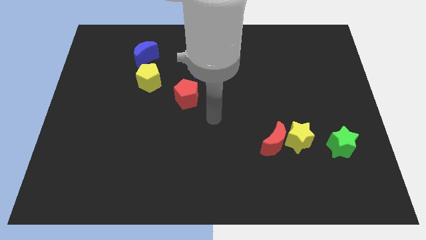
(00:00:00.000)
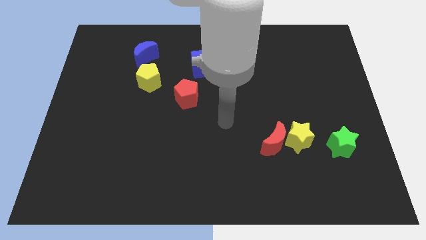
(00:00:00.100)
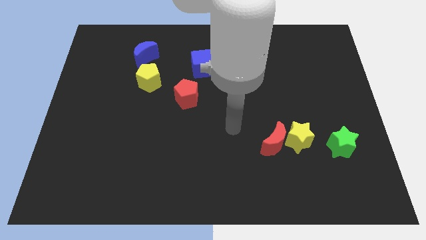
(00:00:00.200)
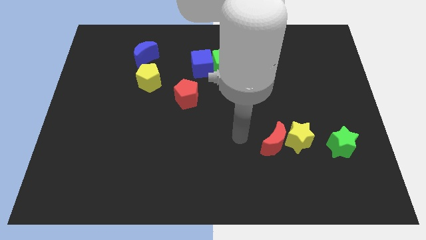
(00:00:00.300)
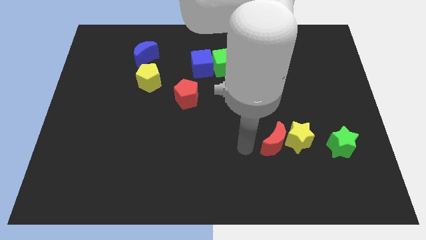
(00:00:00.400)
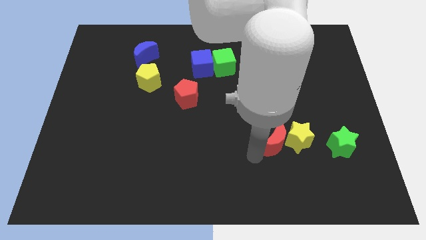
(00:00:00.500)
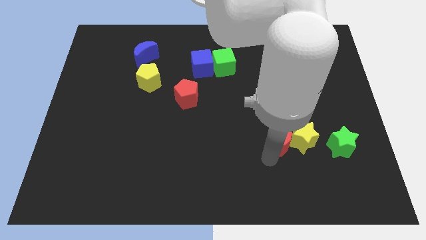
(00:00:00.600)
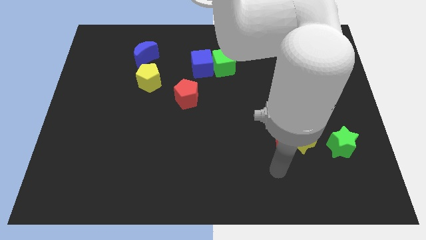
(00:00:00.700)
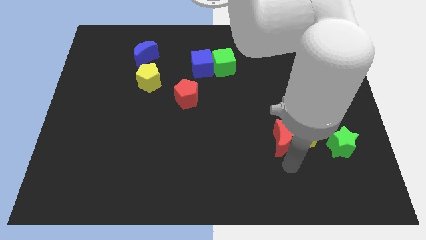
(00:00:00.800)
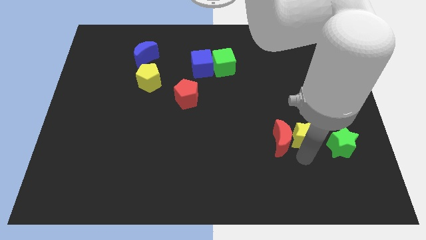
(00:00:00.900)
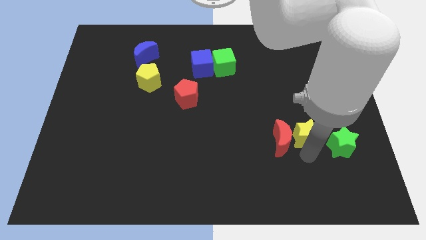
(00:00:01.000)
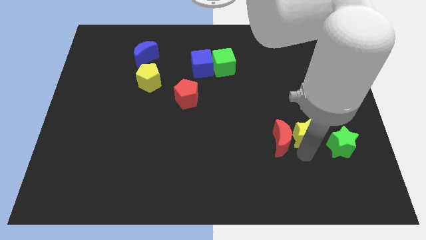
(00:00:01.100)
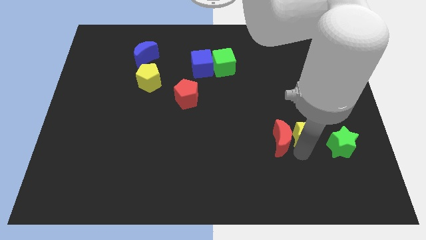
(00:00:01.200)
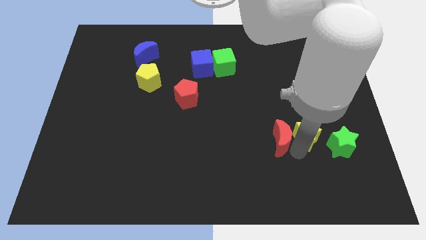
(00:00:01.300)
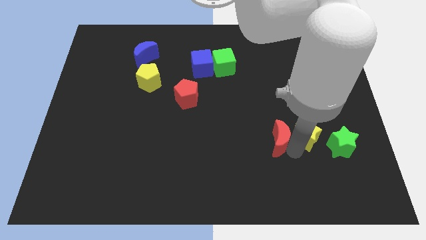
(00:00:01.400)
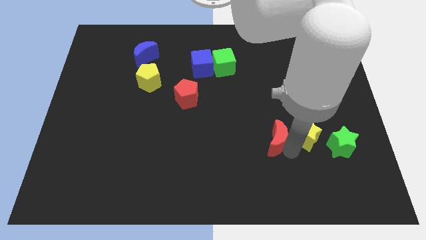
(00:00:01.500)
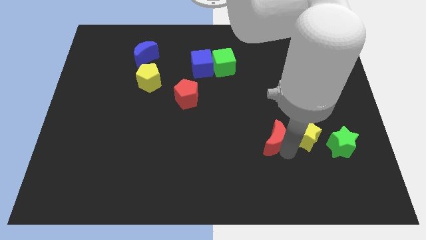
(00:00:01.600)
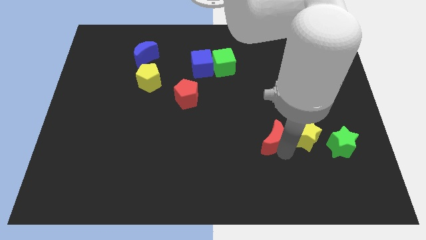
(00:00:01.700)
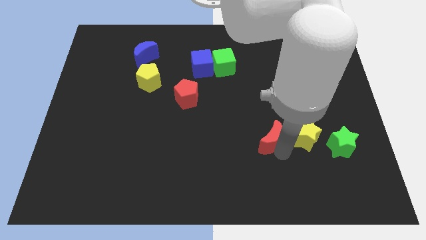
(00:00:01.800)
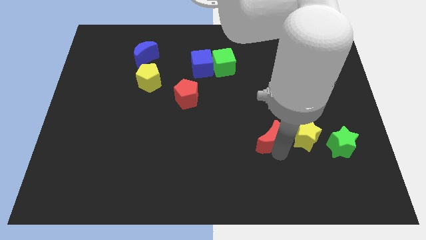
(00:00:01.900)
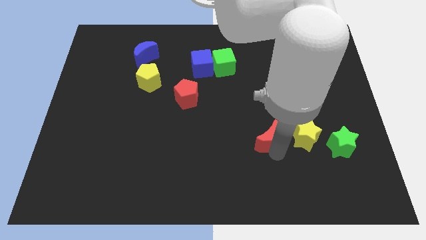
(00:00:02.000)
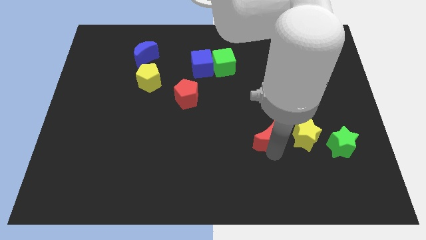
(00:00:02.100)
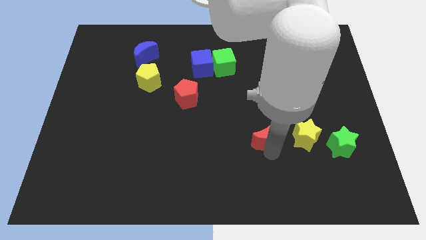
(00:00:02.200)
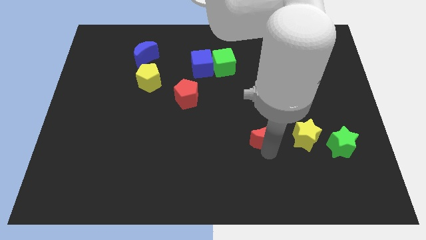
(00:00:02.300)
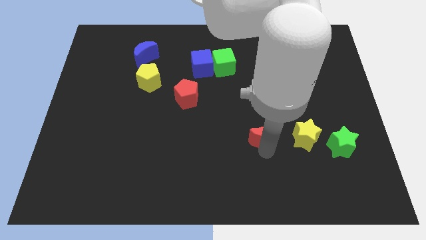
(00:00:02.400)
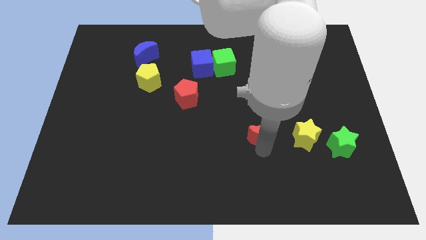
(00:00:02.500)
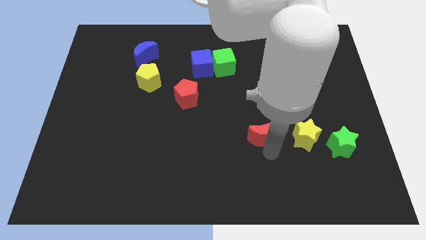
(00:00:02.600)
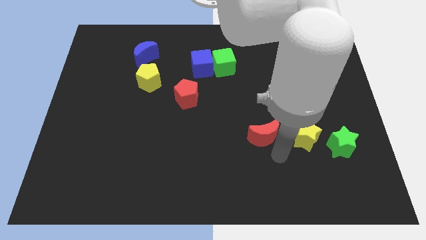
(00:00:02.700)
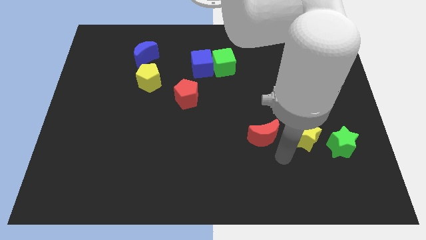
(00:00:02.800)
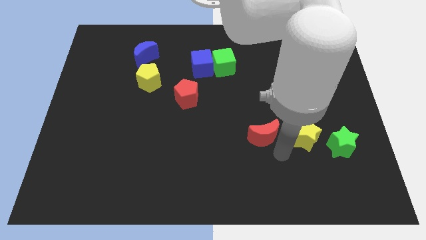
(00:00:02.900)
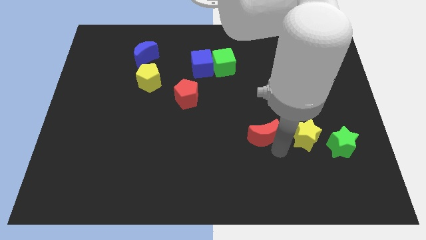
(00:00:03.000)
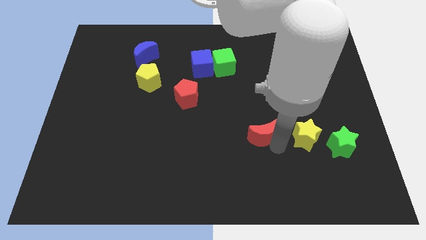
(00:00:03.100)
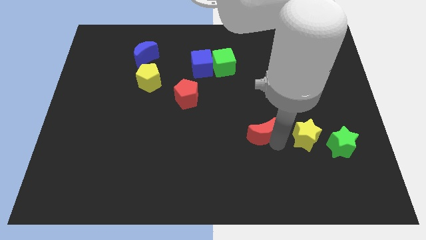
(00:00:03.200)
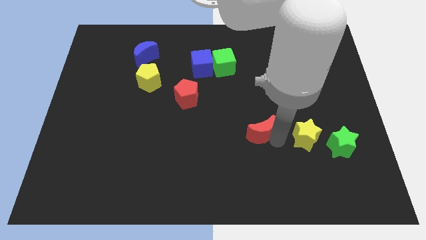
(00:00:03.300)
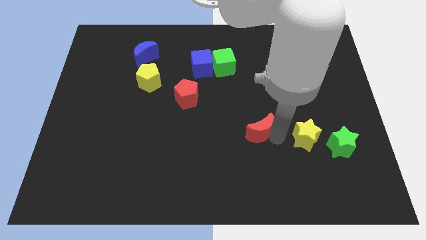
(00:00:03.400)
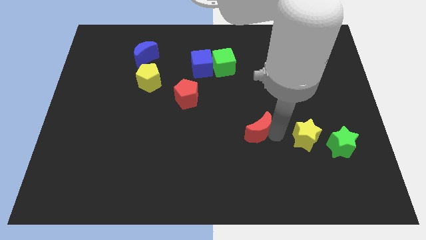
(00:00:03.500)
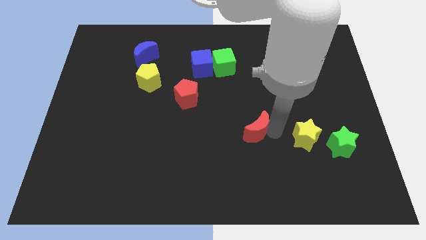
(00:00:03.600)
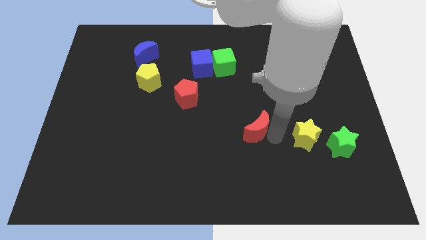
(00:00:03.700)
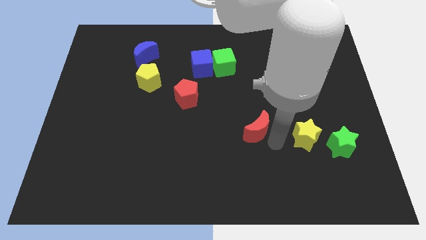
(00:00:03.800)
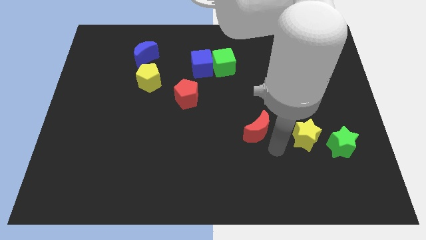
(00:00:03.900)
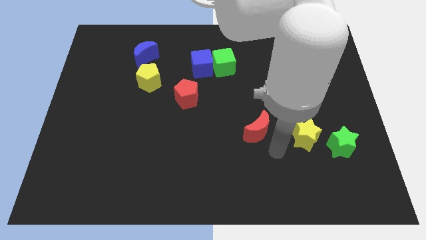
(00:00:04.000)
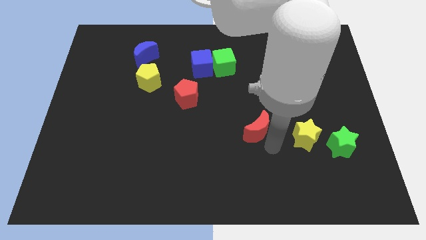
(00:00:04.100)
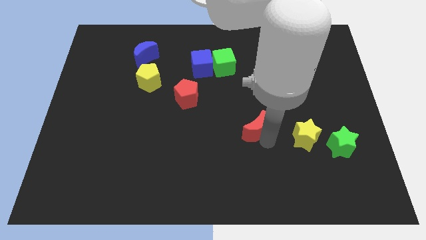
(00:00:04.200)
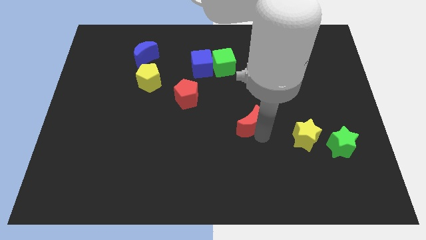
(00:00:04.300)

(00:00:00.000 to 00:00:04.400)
slightly slide the red moon up and then to the left

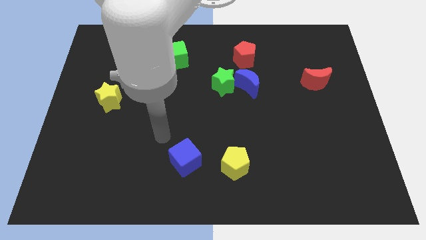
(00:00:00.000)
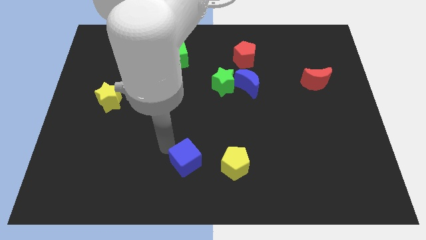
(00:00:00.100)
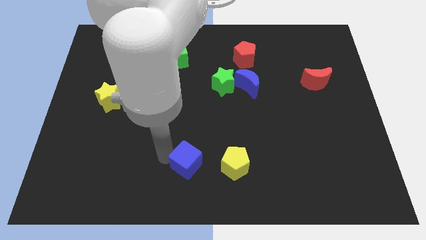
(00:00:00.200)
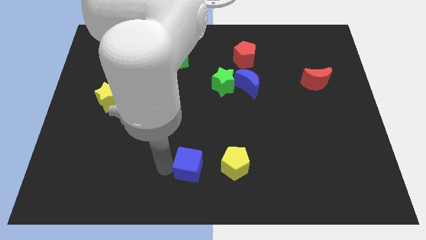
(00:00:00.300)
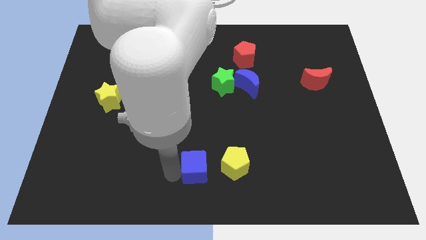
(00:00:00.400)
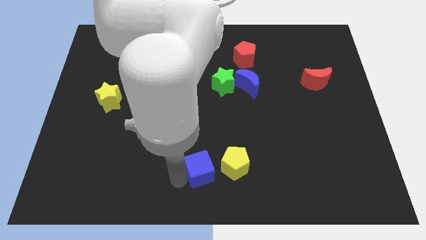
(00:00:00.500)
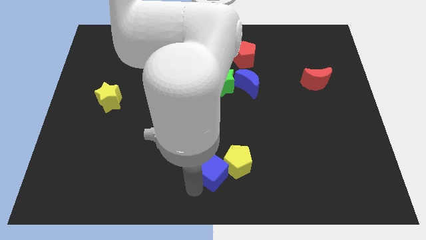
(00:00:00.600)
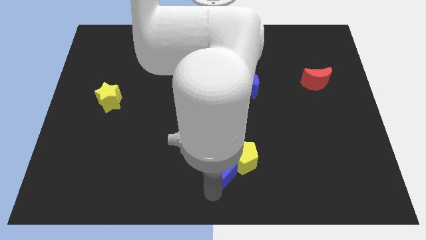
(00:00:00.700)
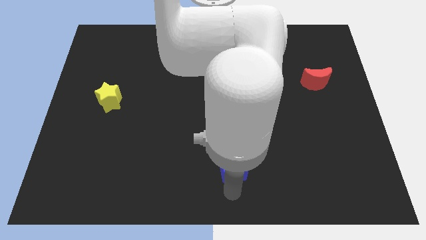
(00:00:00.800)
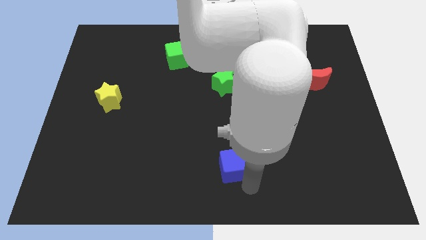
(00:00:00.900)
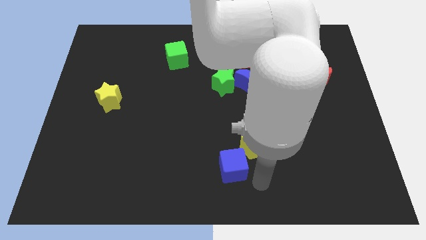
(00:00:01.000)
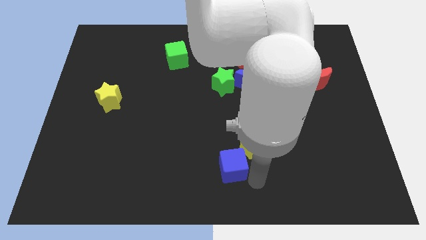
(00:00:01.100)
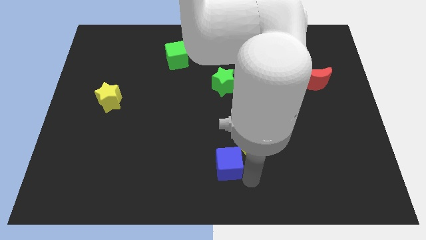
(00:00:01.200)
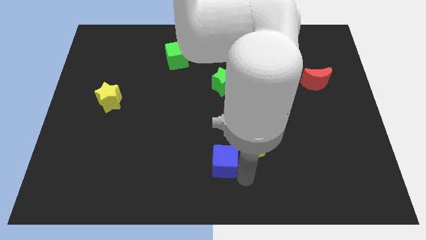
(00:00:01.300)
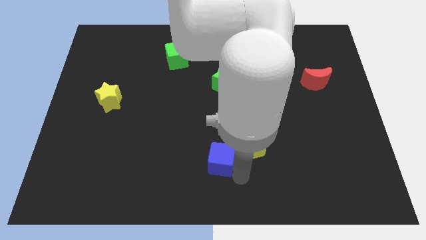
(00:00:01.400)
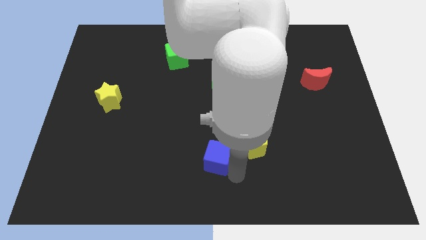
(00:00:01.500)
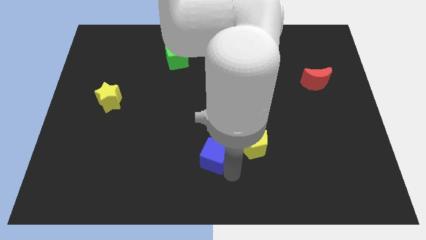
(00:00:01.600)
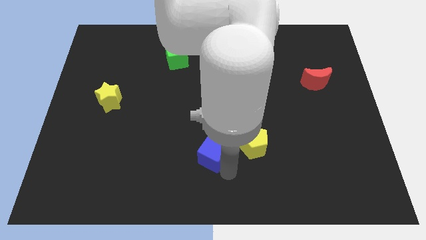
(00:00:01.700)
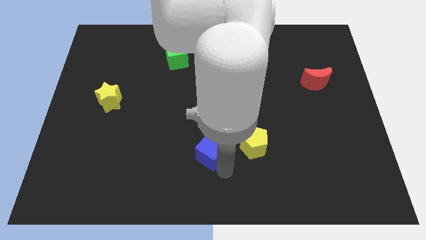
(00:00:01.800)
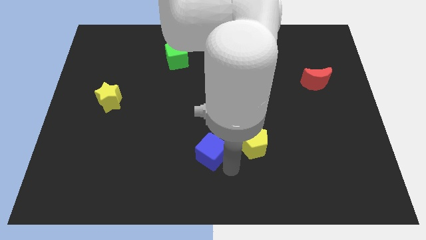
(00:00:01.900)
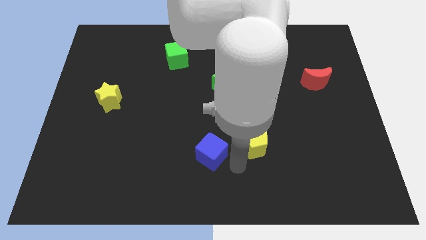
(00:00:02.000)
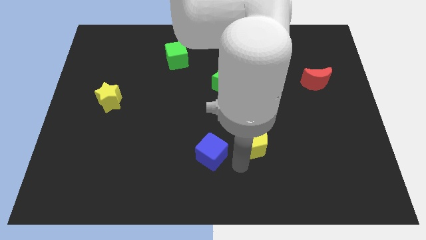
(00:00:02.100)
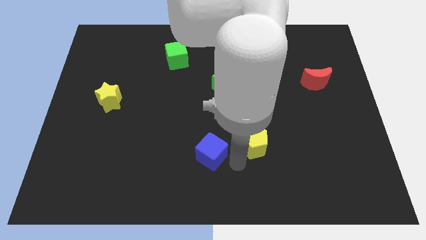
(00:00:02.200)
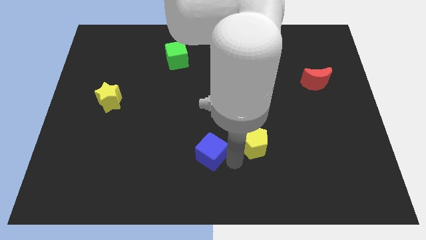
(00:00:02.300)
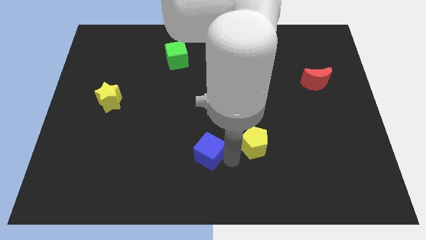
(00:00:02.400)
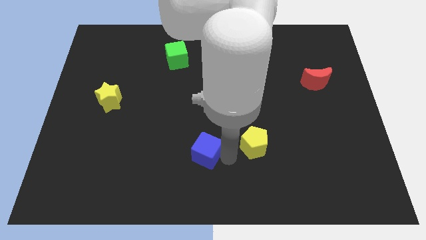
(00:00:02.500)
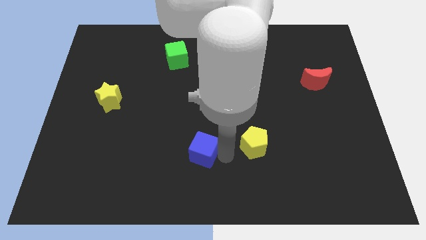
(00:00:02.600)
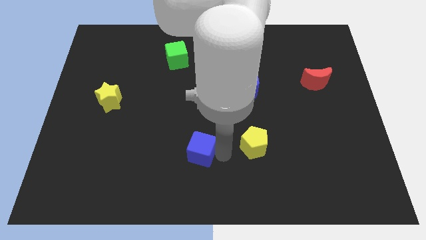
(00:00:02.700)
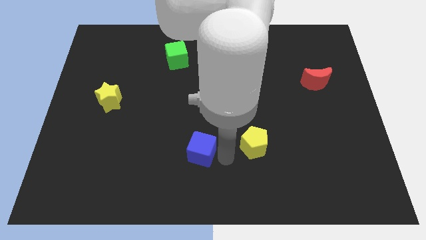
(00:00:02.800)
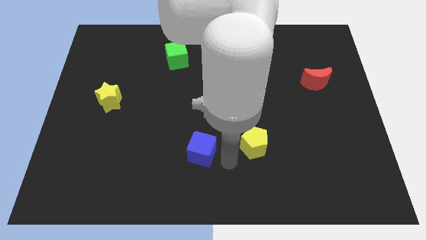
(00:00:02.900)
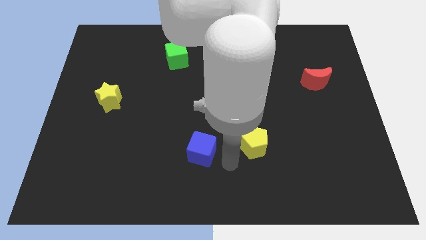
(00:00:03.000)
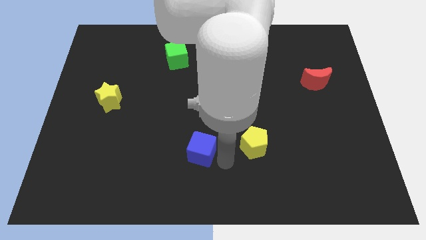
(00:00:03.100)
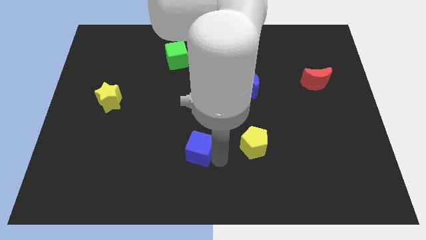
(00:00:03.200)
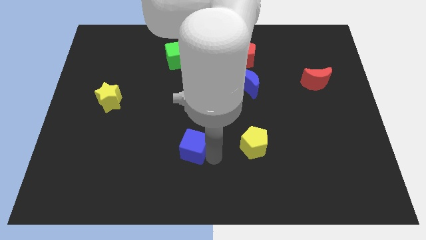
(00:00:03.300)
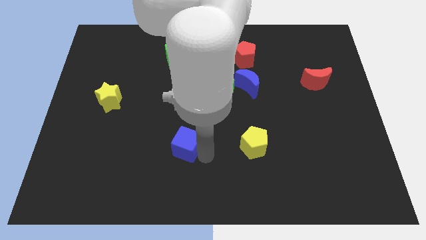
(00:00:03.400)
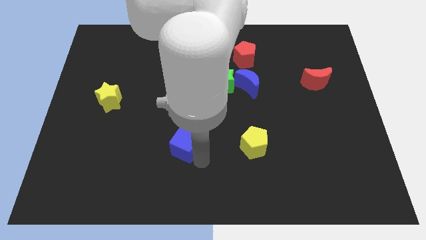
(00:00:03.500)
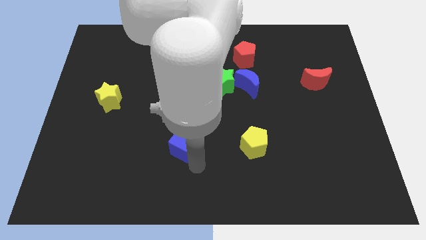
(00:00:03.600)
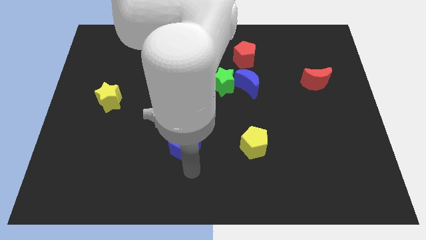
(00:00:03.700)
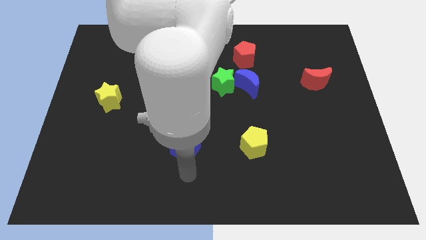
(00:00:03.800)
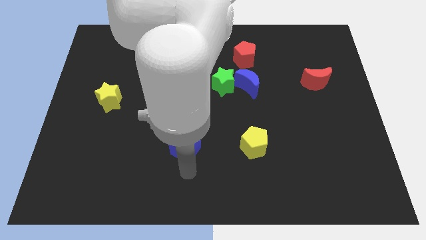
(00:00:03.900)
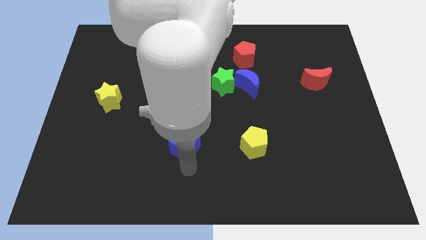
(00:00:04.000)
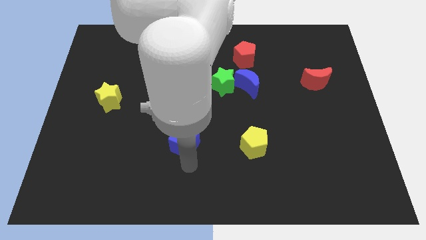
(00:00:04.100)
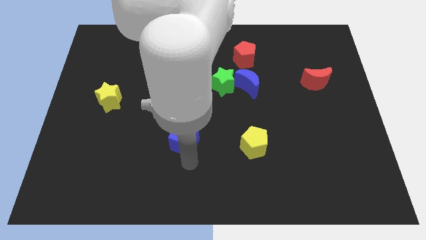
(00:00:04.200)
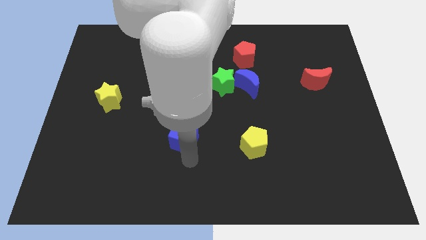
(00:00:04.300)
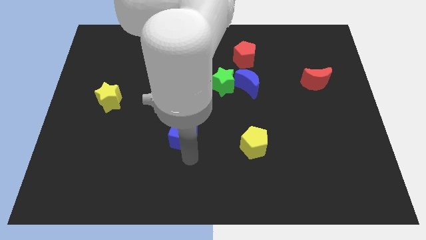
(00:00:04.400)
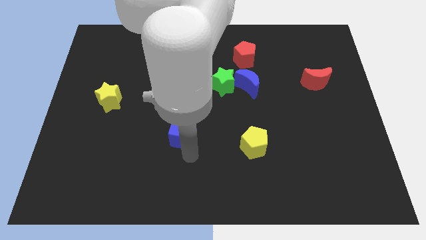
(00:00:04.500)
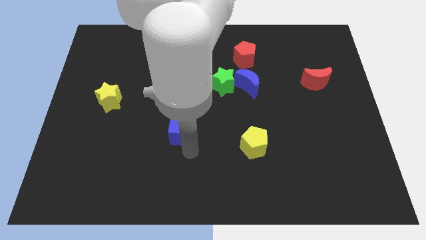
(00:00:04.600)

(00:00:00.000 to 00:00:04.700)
slide the blue cube a little upwards
